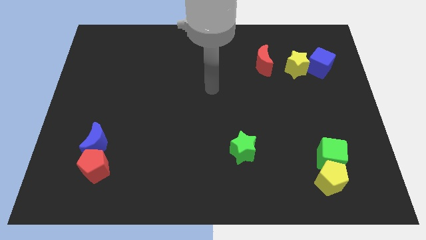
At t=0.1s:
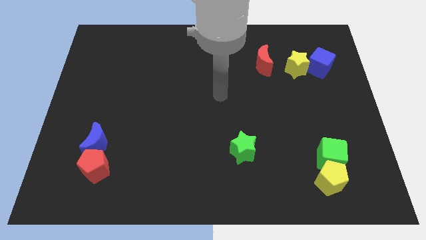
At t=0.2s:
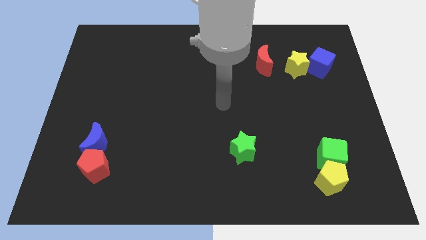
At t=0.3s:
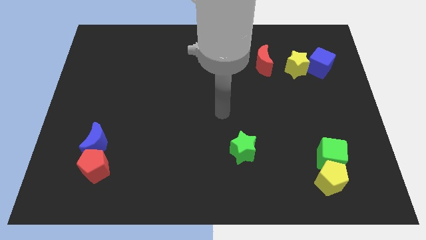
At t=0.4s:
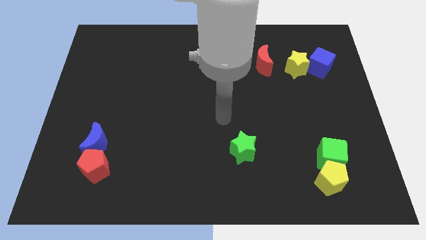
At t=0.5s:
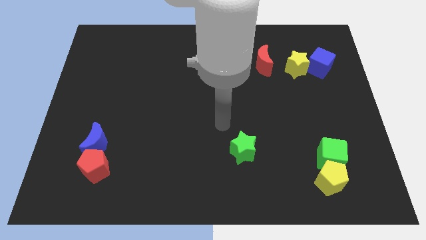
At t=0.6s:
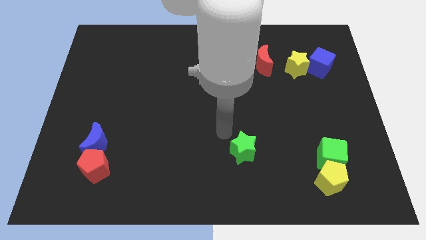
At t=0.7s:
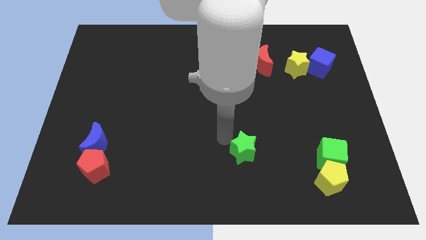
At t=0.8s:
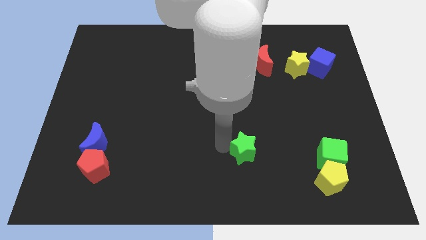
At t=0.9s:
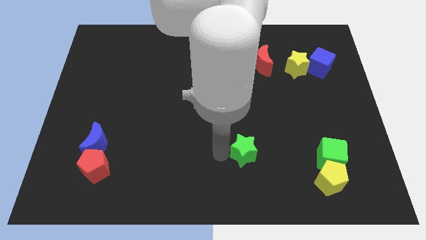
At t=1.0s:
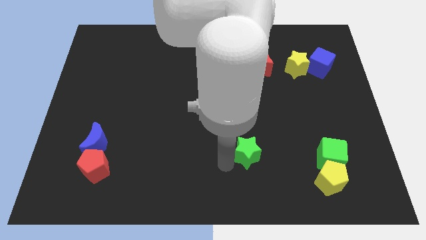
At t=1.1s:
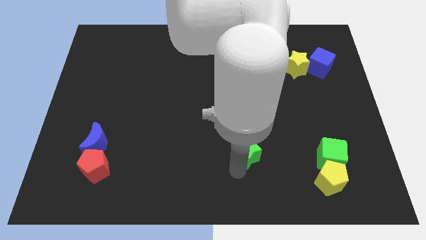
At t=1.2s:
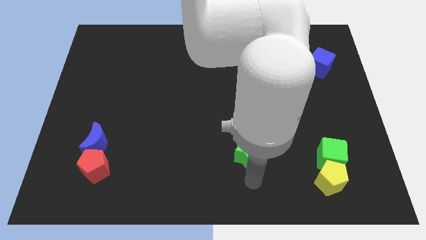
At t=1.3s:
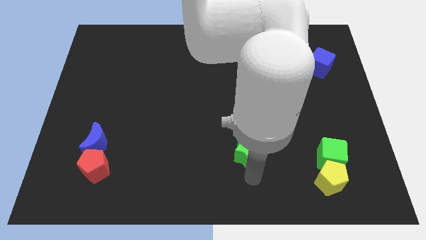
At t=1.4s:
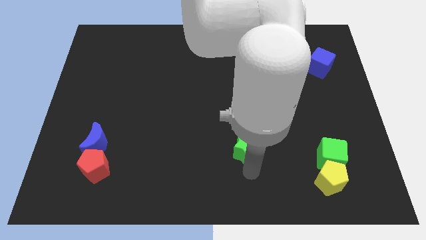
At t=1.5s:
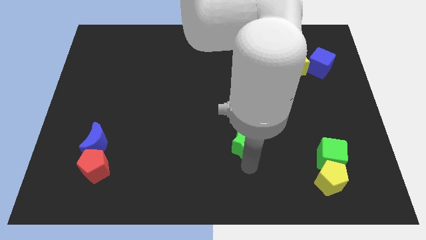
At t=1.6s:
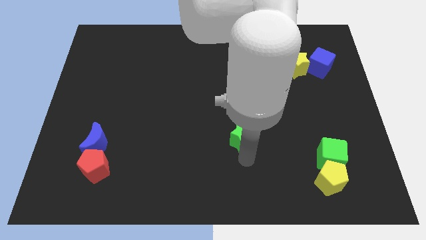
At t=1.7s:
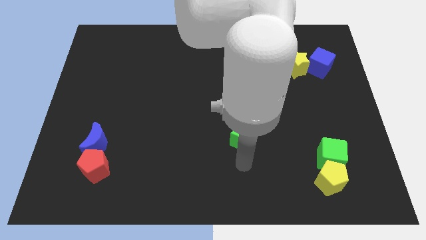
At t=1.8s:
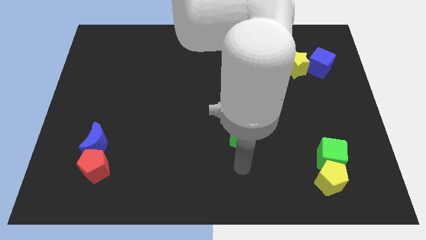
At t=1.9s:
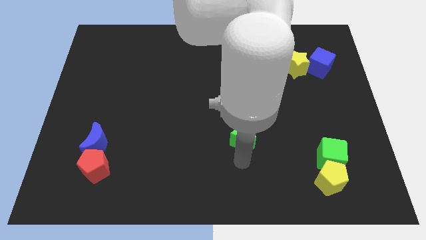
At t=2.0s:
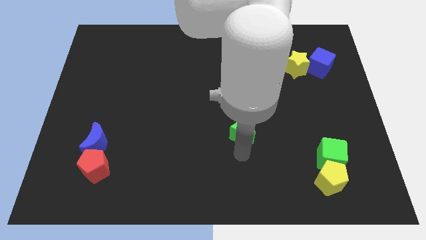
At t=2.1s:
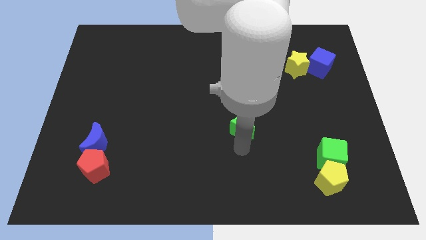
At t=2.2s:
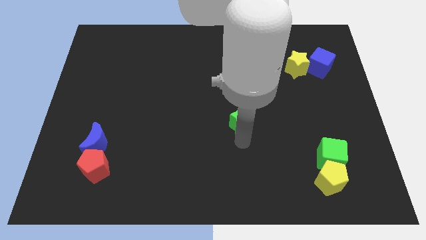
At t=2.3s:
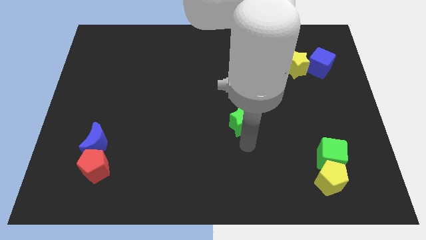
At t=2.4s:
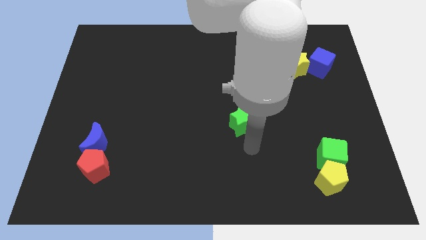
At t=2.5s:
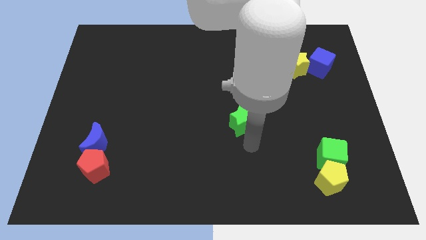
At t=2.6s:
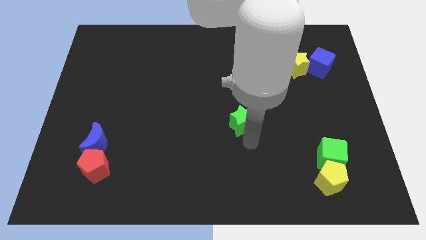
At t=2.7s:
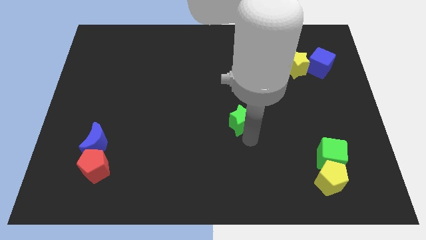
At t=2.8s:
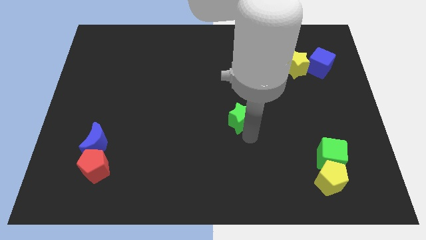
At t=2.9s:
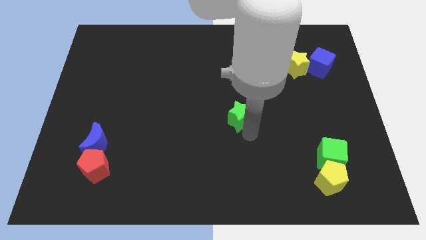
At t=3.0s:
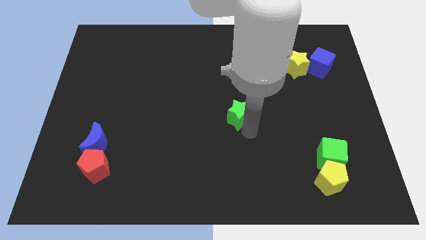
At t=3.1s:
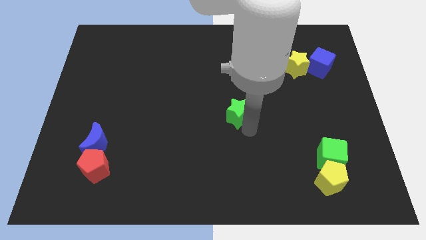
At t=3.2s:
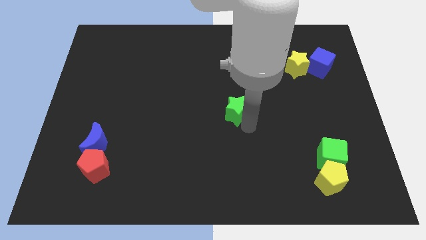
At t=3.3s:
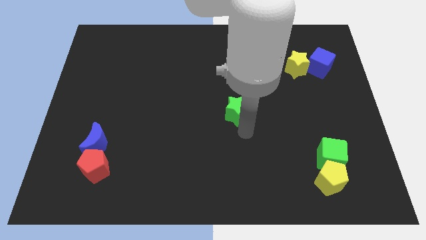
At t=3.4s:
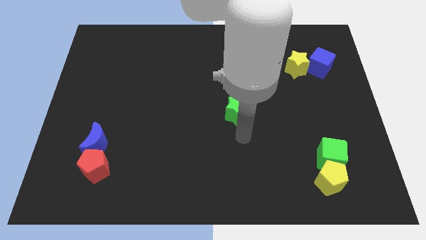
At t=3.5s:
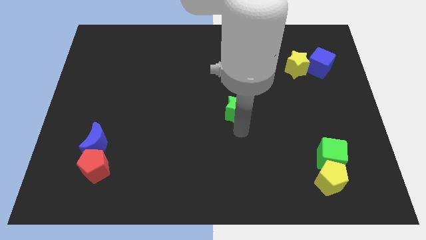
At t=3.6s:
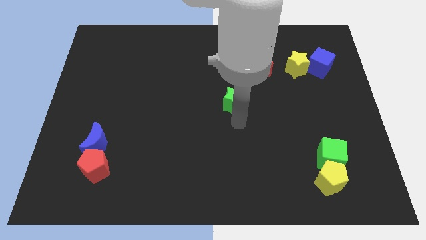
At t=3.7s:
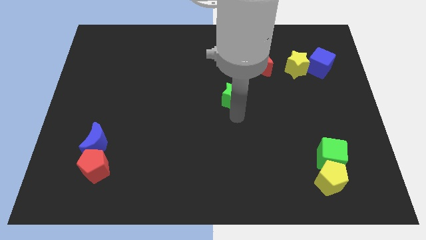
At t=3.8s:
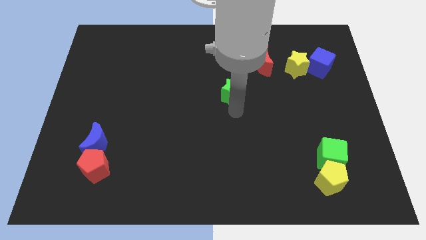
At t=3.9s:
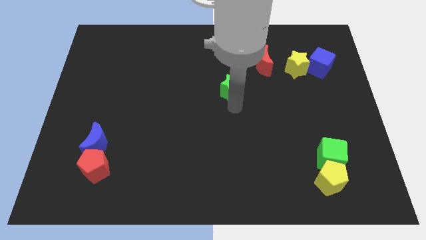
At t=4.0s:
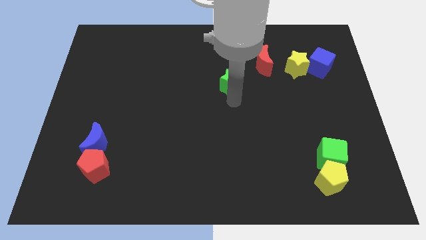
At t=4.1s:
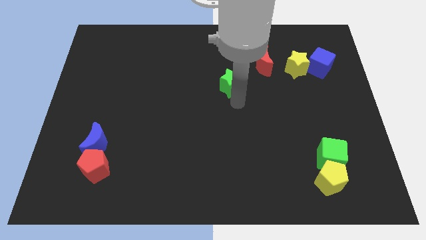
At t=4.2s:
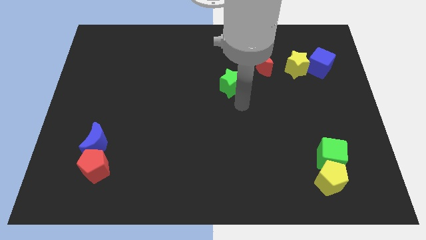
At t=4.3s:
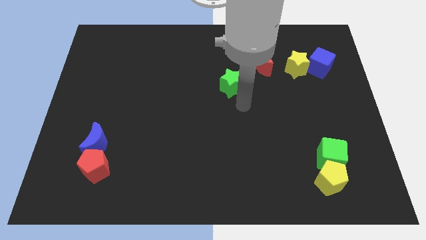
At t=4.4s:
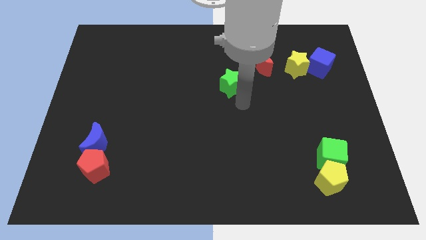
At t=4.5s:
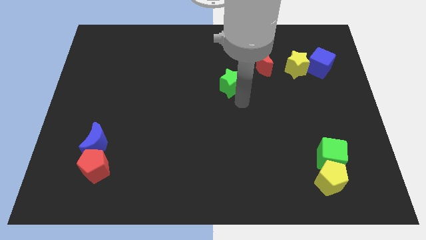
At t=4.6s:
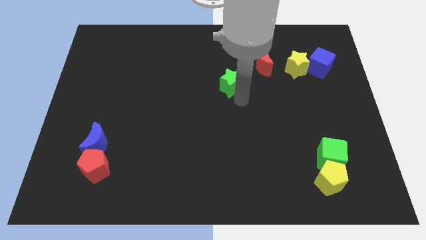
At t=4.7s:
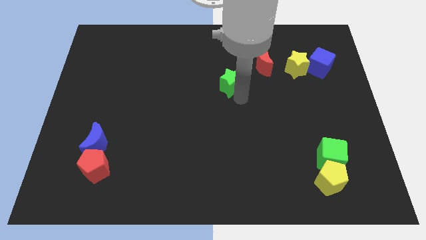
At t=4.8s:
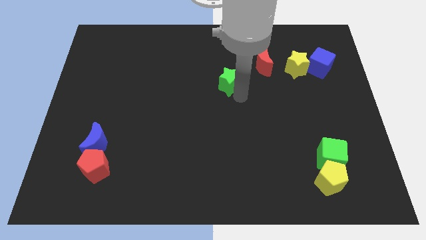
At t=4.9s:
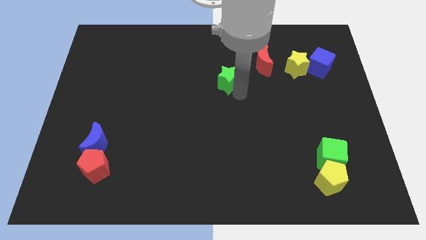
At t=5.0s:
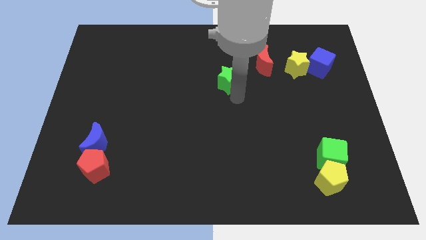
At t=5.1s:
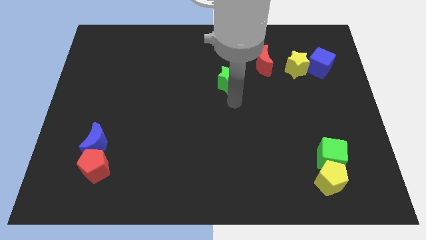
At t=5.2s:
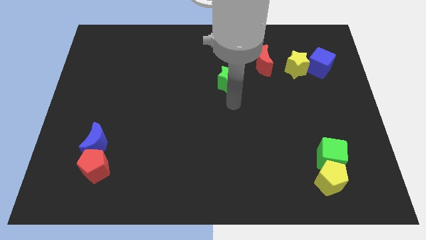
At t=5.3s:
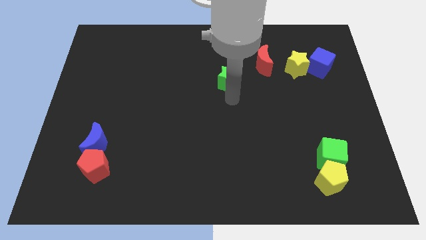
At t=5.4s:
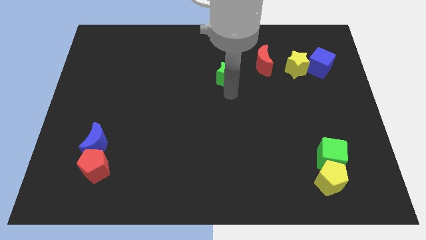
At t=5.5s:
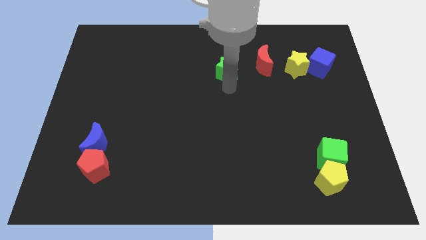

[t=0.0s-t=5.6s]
put the green star to the left side of the red moon

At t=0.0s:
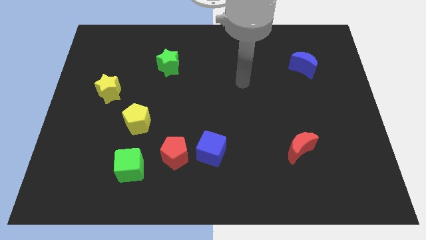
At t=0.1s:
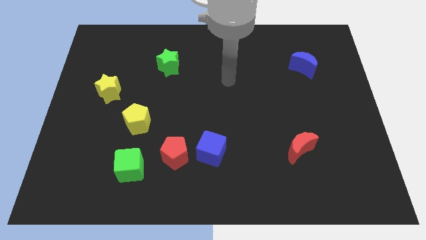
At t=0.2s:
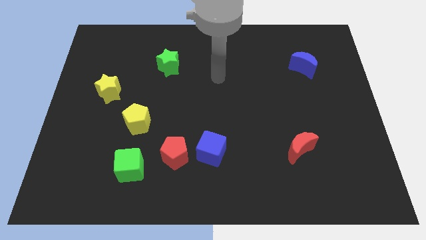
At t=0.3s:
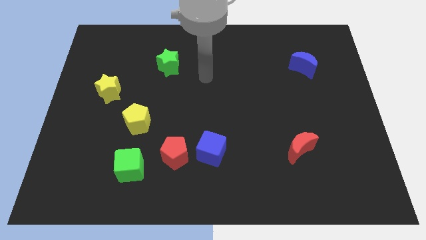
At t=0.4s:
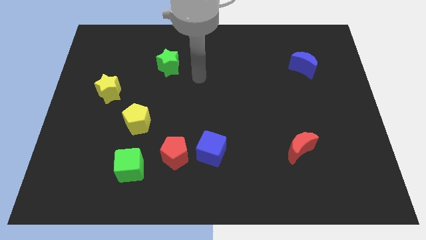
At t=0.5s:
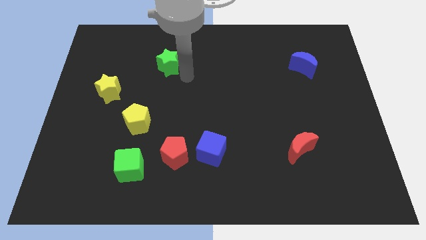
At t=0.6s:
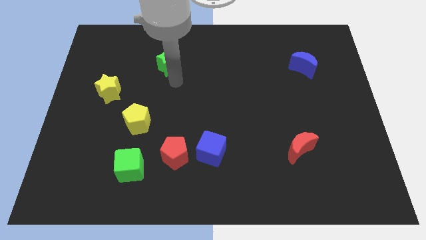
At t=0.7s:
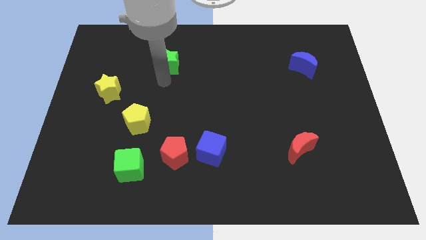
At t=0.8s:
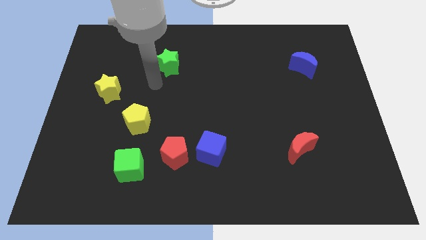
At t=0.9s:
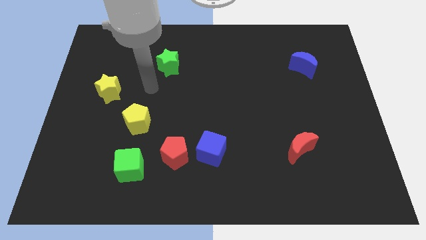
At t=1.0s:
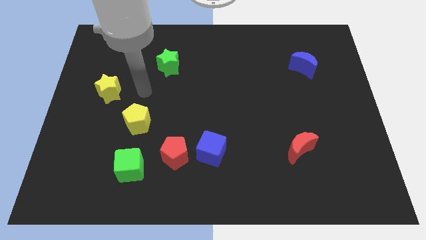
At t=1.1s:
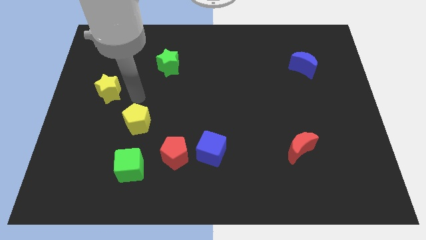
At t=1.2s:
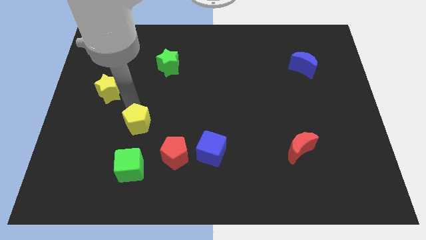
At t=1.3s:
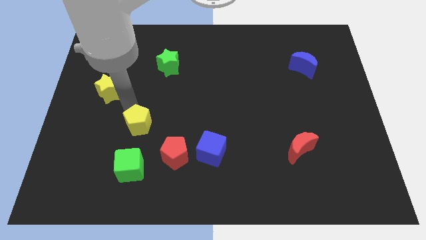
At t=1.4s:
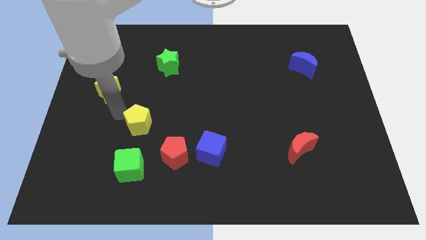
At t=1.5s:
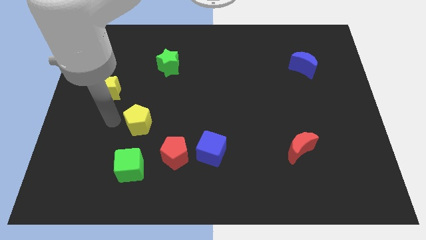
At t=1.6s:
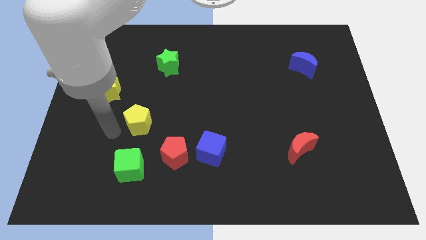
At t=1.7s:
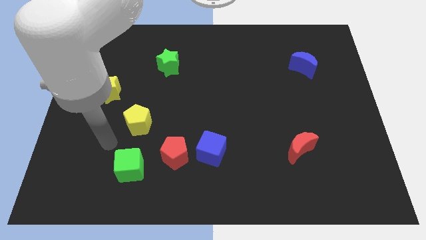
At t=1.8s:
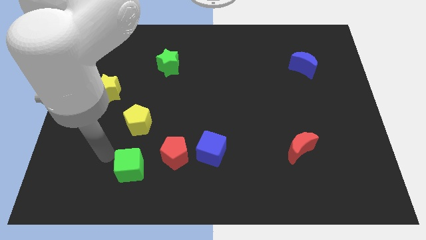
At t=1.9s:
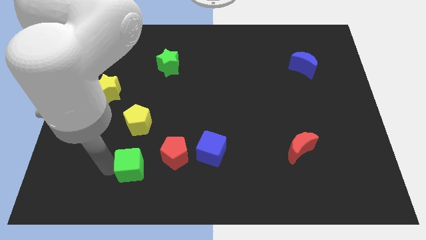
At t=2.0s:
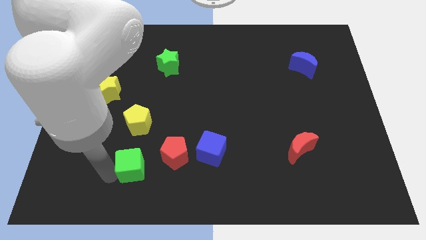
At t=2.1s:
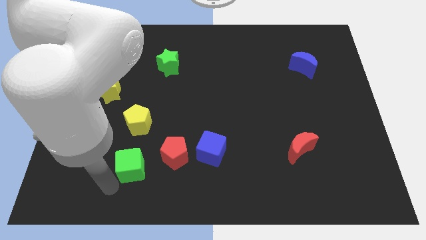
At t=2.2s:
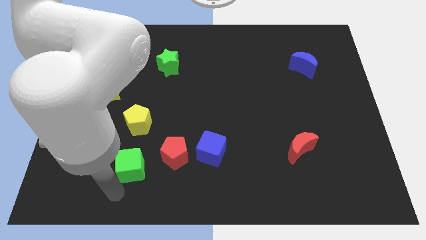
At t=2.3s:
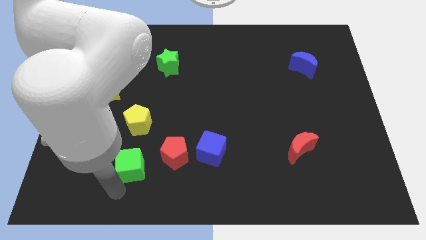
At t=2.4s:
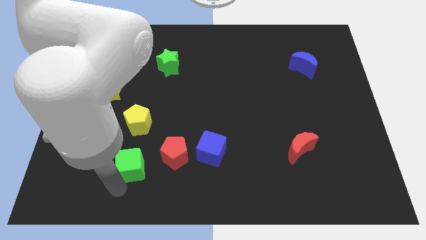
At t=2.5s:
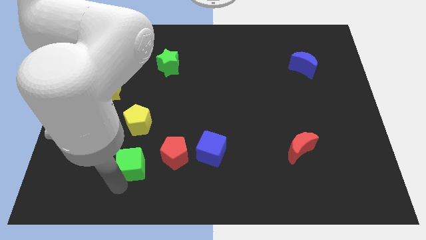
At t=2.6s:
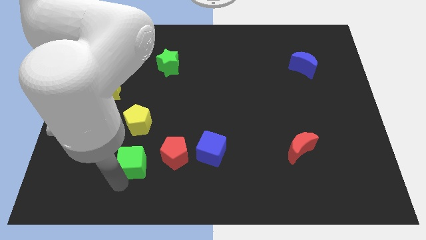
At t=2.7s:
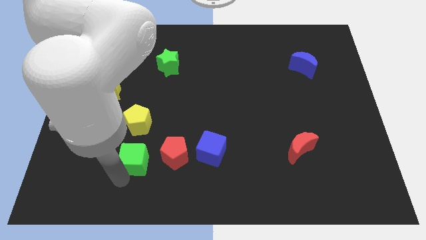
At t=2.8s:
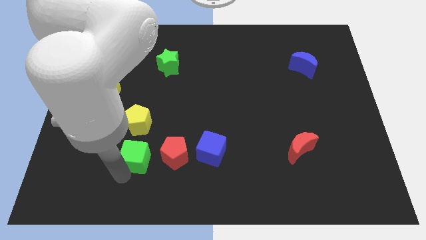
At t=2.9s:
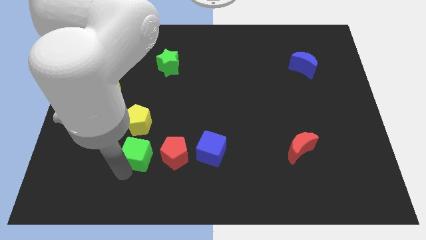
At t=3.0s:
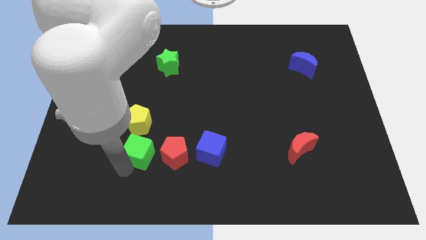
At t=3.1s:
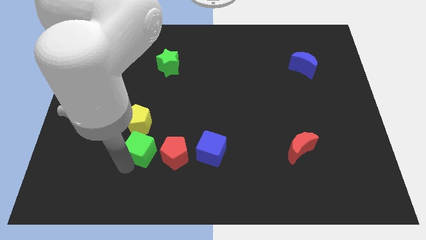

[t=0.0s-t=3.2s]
move the green cube diagonally up and to the left of the red pentagon
